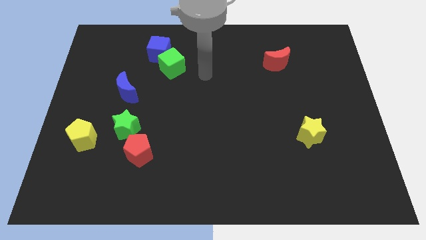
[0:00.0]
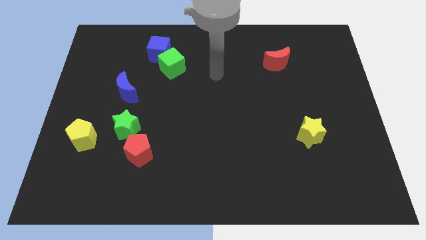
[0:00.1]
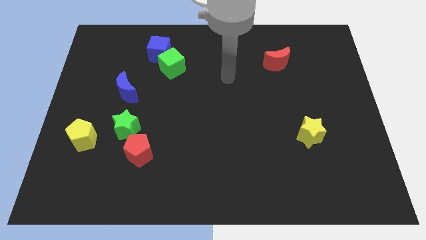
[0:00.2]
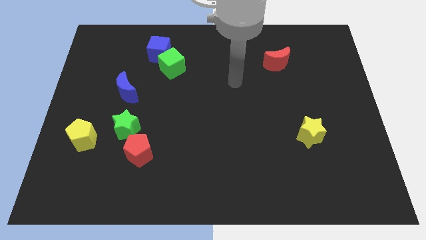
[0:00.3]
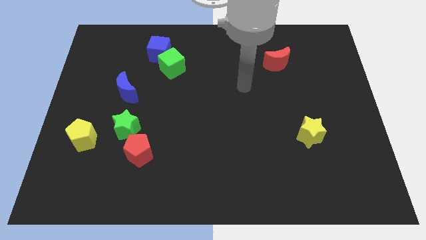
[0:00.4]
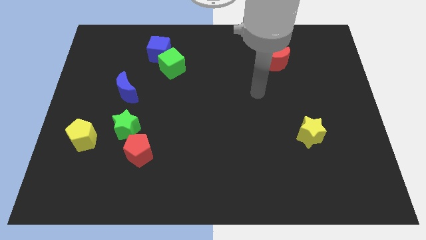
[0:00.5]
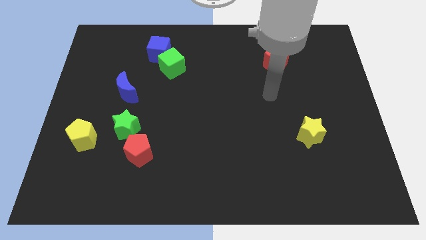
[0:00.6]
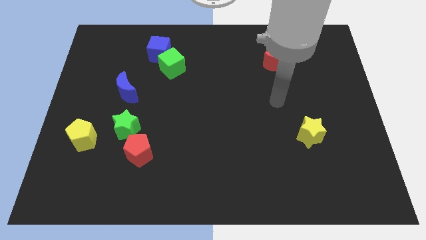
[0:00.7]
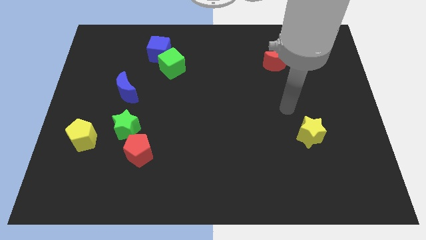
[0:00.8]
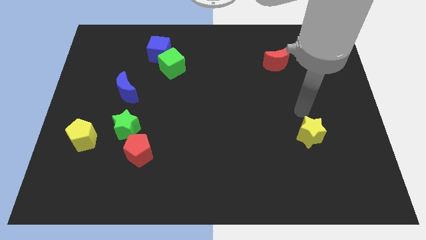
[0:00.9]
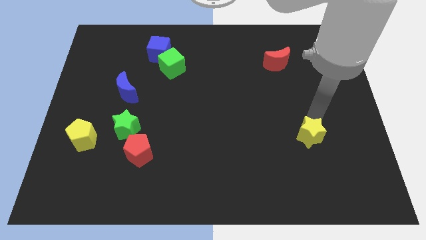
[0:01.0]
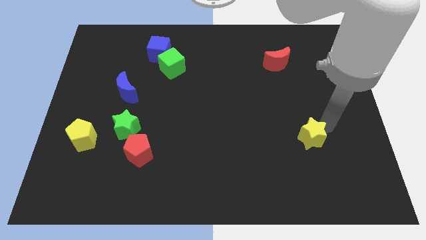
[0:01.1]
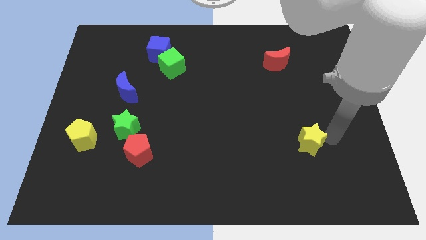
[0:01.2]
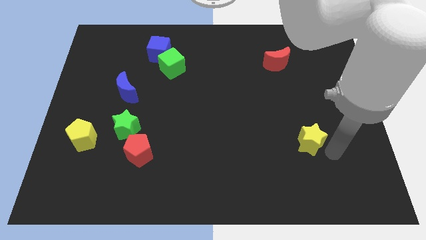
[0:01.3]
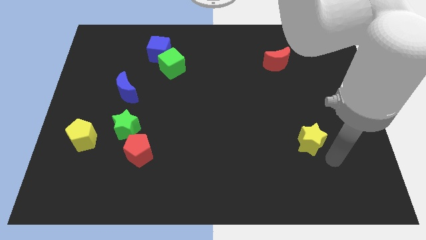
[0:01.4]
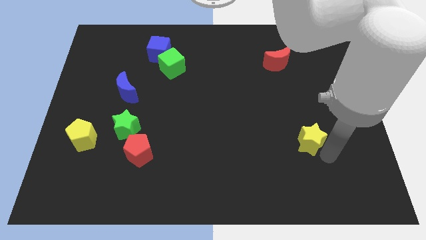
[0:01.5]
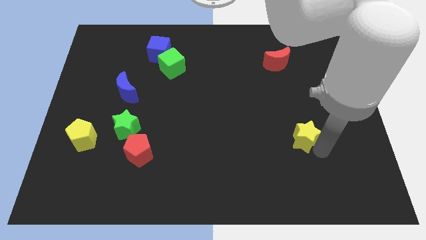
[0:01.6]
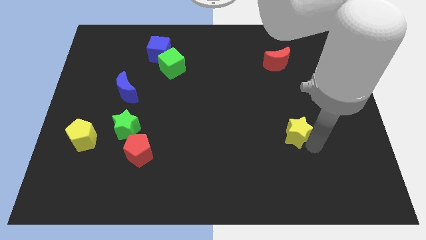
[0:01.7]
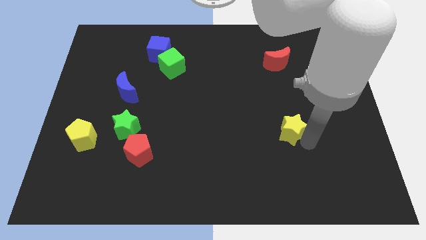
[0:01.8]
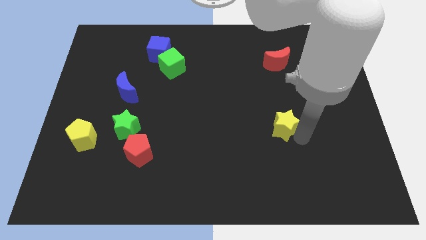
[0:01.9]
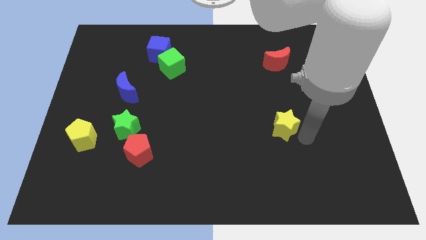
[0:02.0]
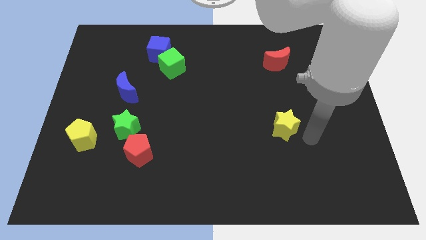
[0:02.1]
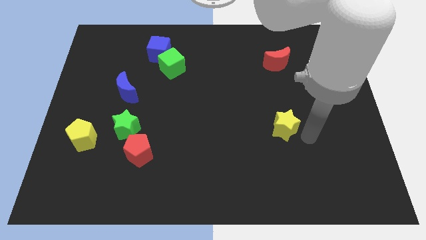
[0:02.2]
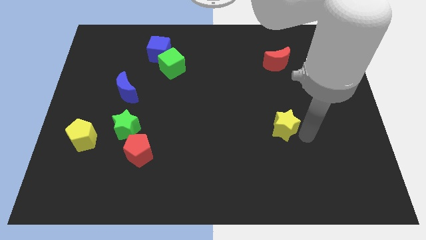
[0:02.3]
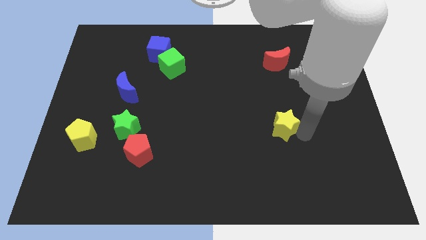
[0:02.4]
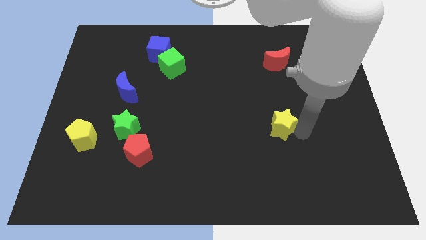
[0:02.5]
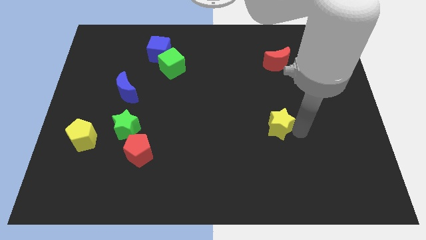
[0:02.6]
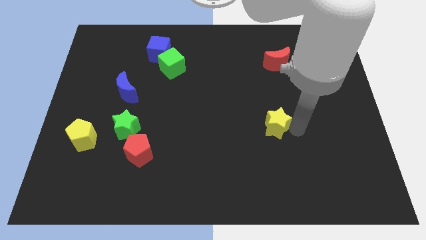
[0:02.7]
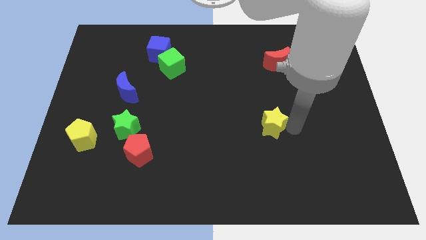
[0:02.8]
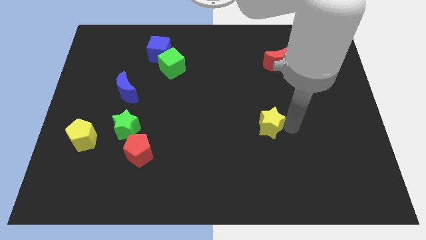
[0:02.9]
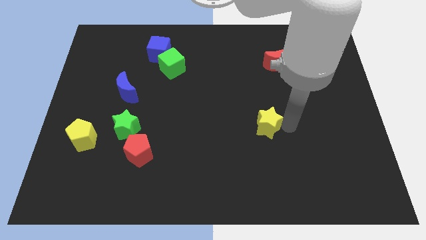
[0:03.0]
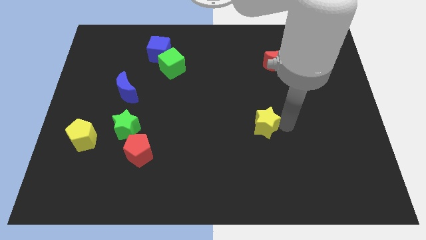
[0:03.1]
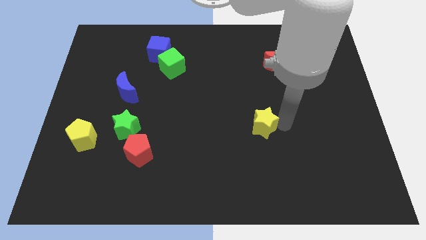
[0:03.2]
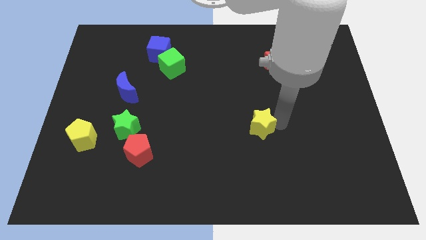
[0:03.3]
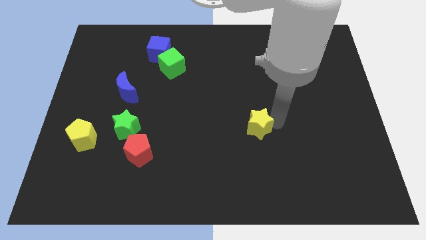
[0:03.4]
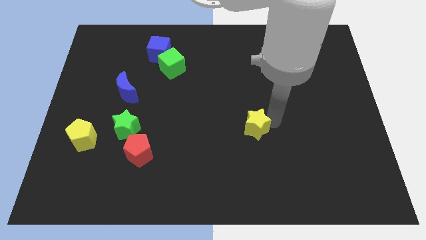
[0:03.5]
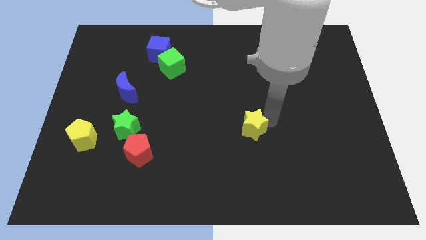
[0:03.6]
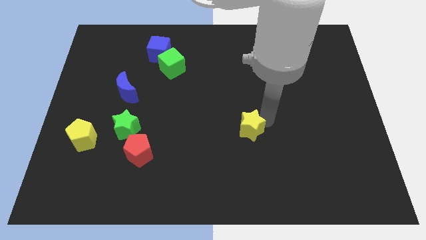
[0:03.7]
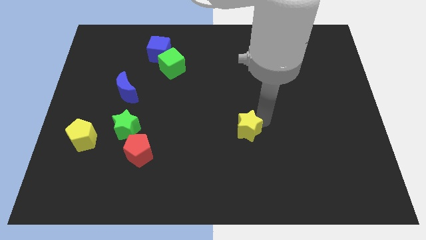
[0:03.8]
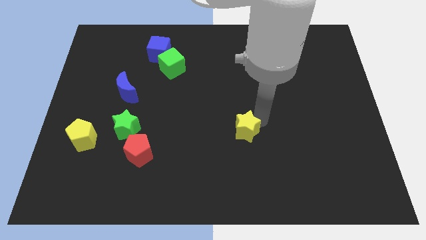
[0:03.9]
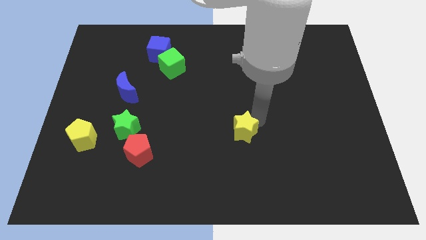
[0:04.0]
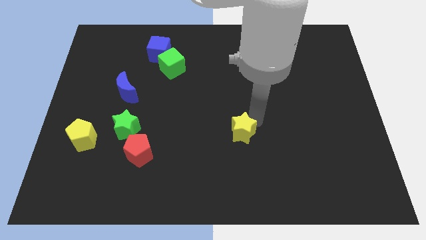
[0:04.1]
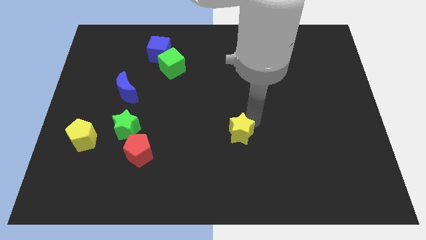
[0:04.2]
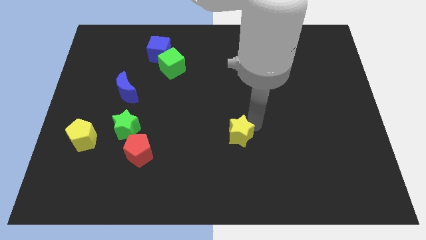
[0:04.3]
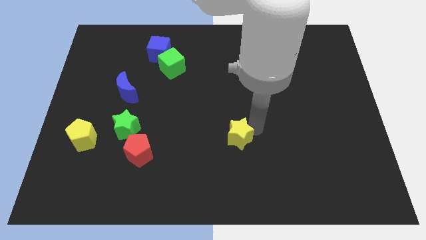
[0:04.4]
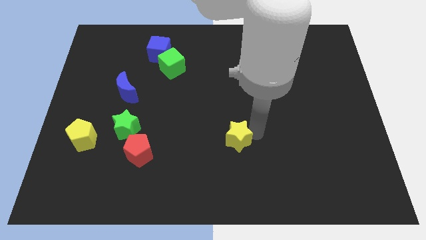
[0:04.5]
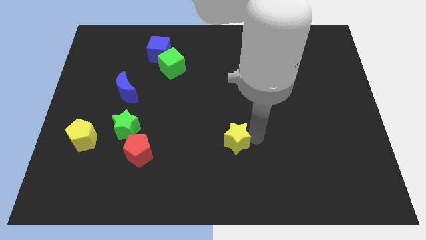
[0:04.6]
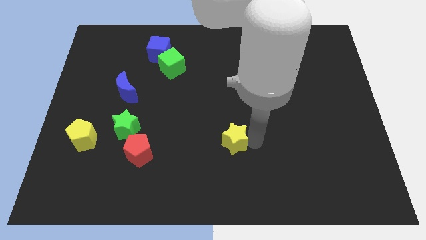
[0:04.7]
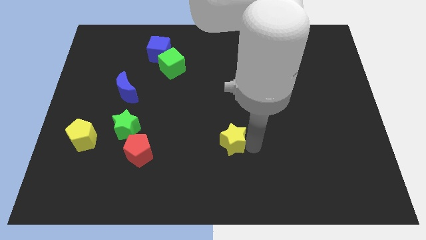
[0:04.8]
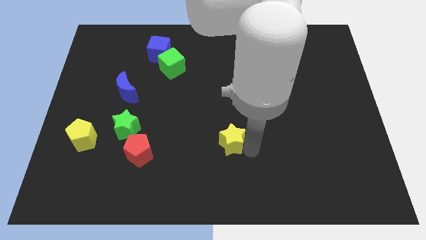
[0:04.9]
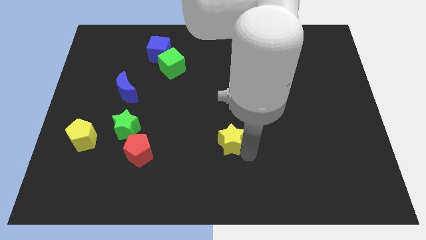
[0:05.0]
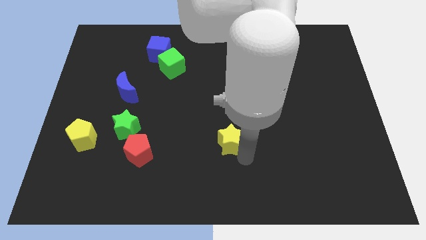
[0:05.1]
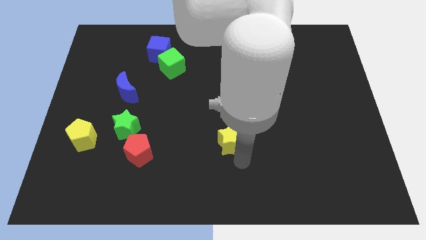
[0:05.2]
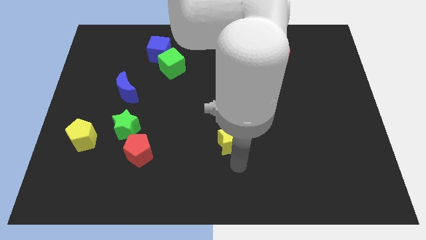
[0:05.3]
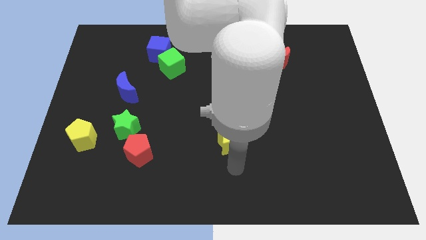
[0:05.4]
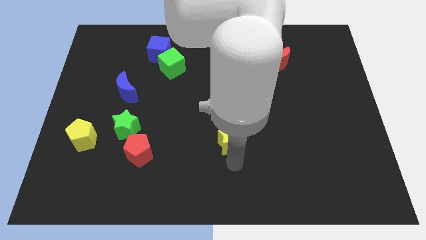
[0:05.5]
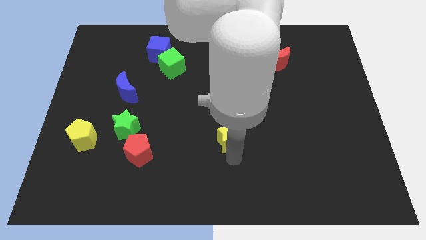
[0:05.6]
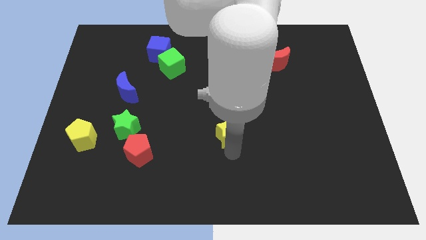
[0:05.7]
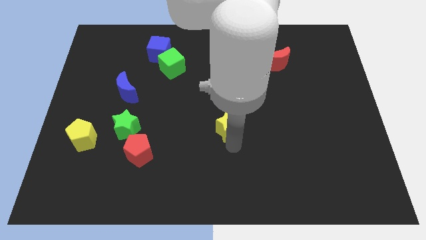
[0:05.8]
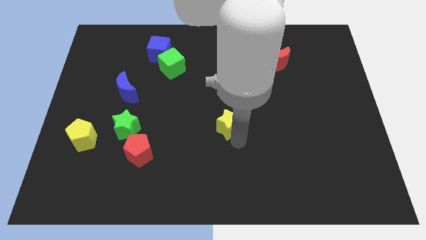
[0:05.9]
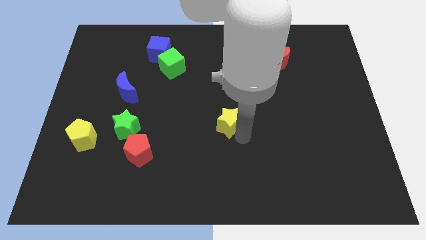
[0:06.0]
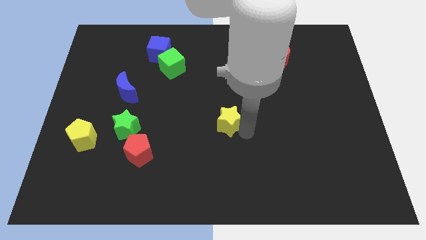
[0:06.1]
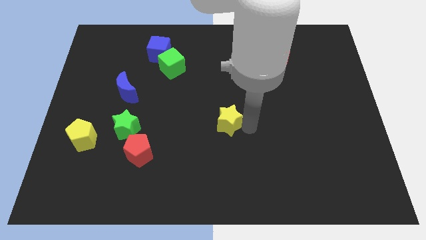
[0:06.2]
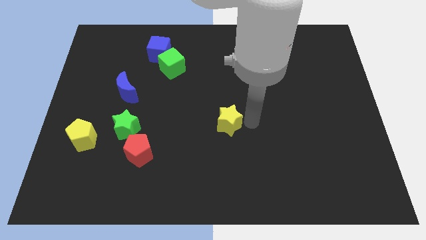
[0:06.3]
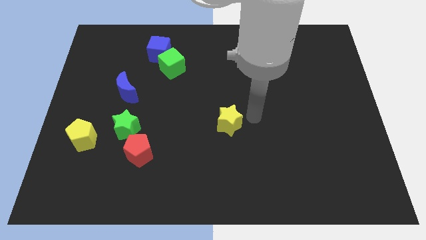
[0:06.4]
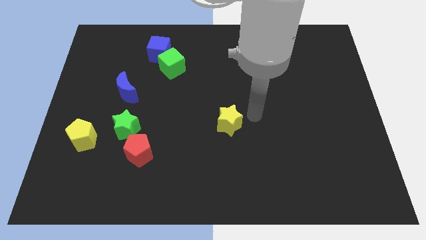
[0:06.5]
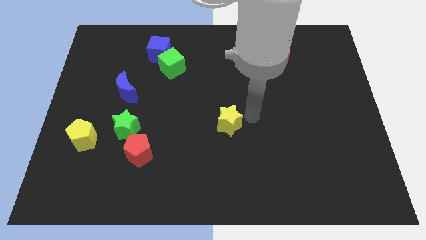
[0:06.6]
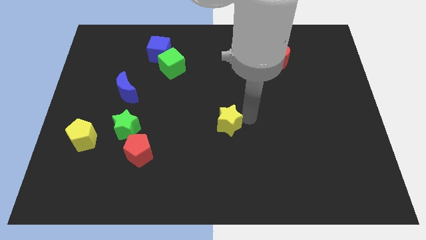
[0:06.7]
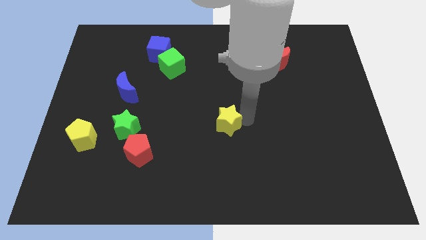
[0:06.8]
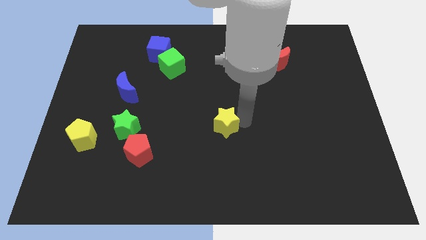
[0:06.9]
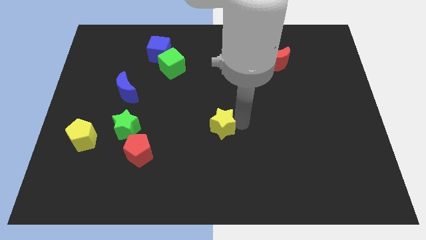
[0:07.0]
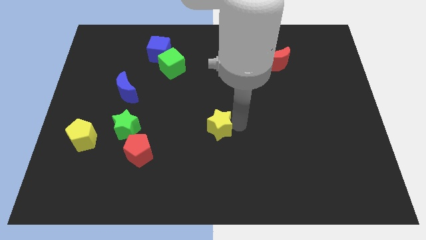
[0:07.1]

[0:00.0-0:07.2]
move the yellow star to the left

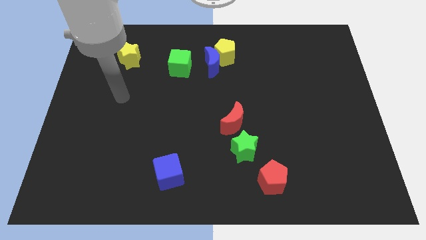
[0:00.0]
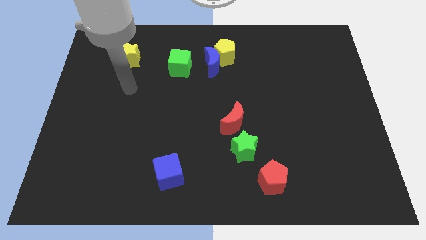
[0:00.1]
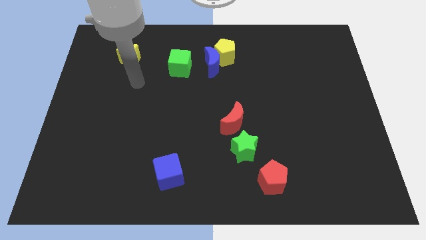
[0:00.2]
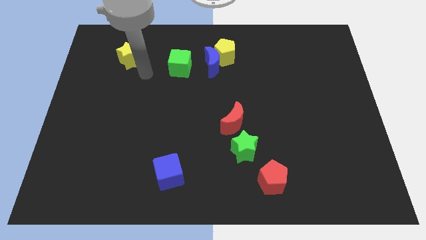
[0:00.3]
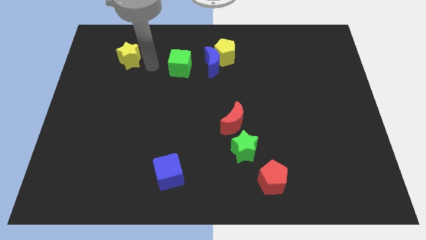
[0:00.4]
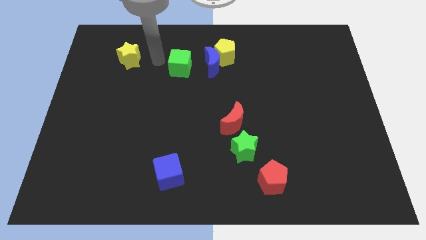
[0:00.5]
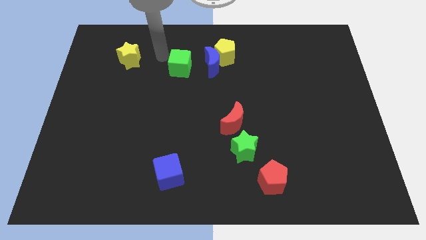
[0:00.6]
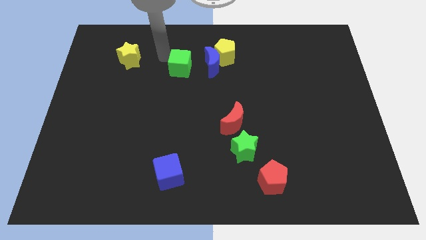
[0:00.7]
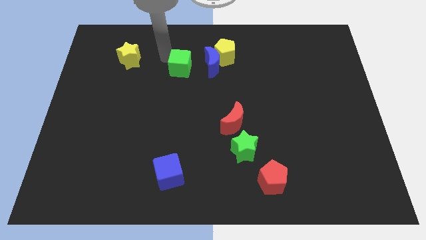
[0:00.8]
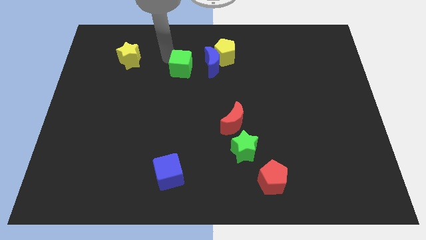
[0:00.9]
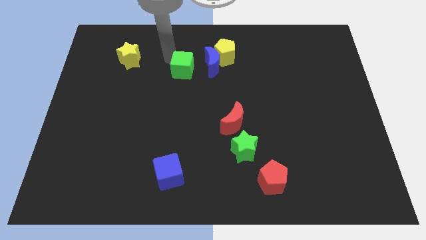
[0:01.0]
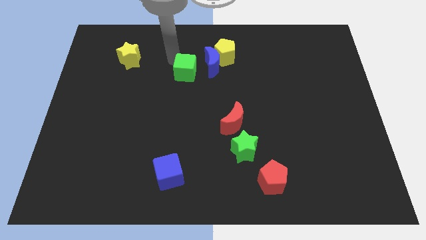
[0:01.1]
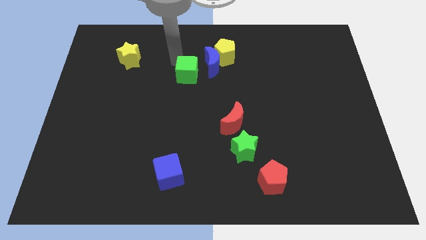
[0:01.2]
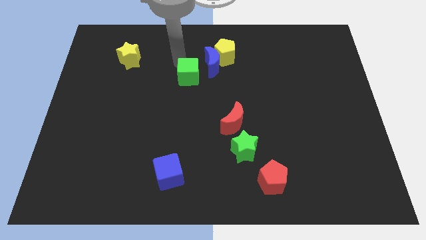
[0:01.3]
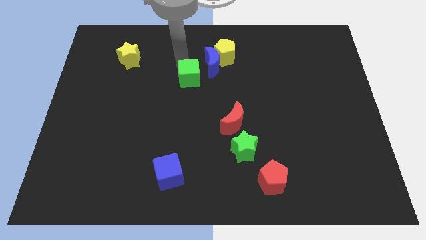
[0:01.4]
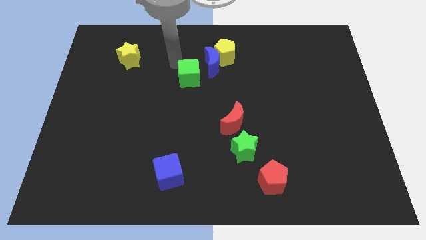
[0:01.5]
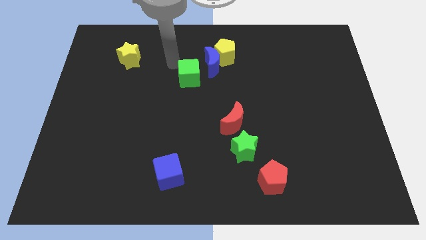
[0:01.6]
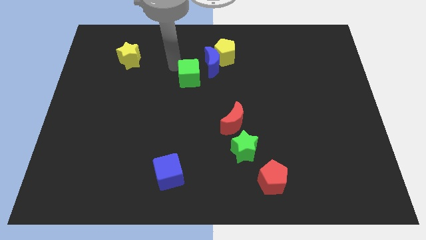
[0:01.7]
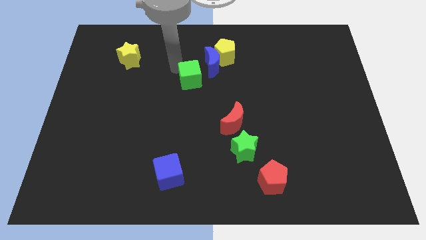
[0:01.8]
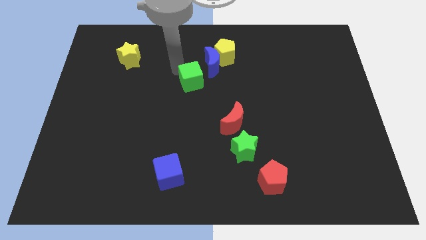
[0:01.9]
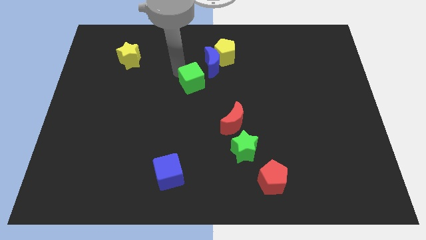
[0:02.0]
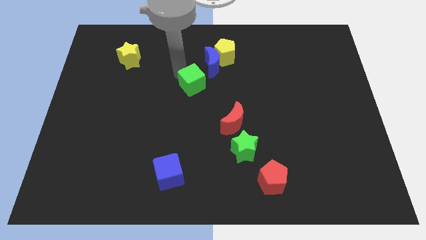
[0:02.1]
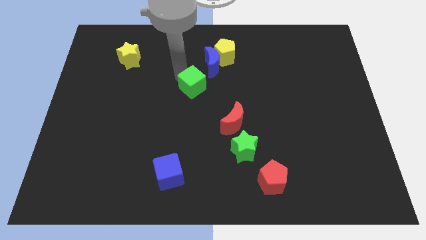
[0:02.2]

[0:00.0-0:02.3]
push the green cube a bit diagonally downwards and right
